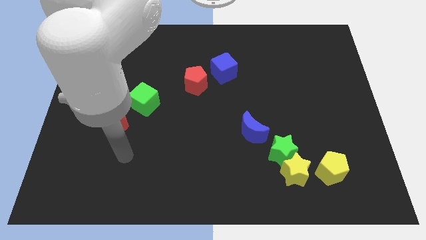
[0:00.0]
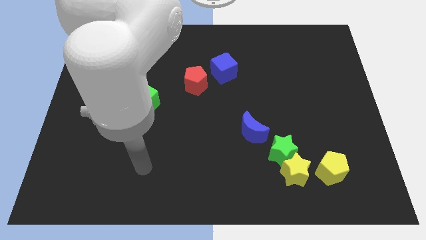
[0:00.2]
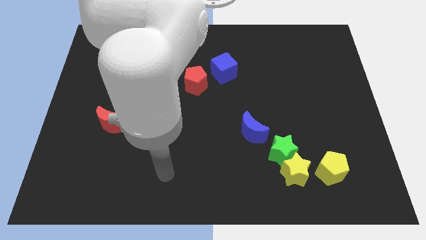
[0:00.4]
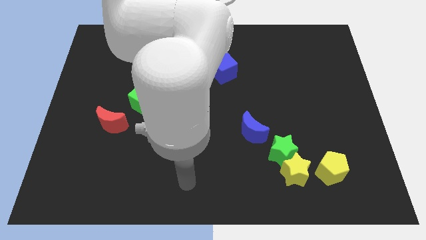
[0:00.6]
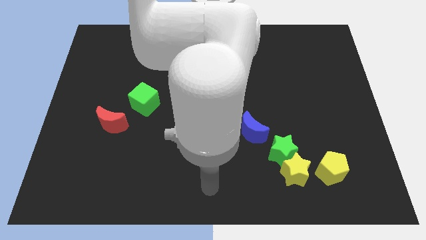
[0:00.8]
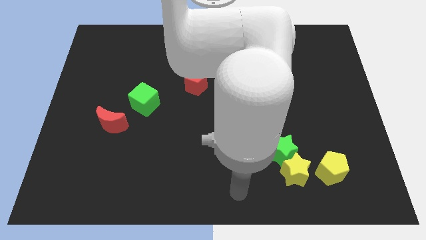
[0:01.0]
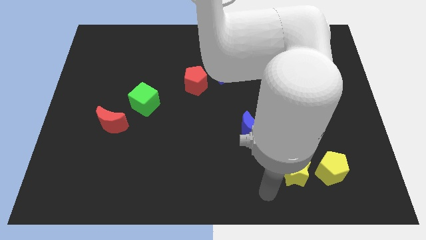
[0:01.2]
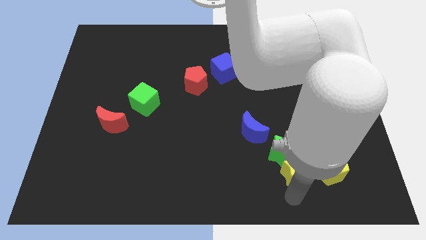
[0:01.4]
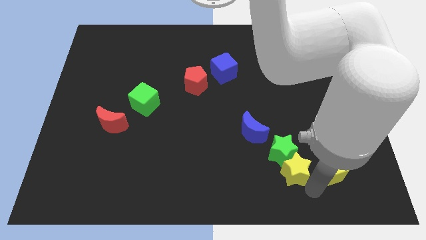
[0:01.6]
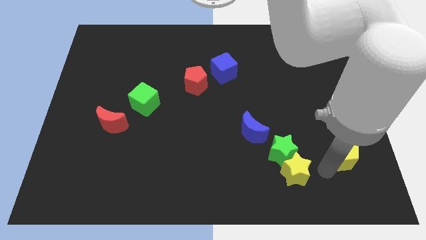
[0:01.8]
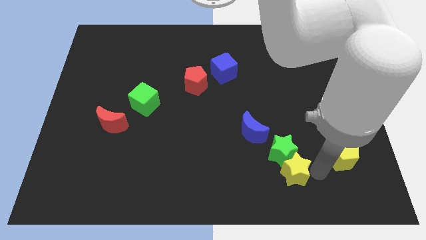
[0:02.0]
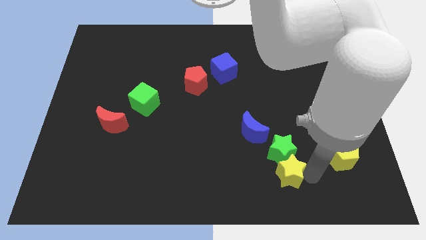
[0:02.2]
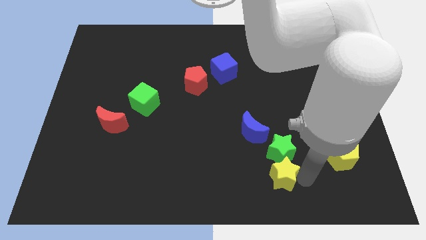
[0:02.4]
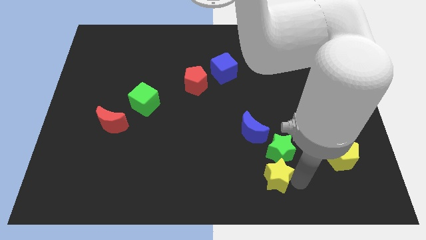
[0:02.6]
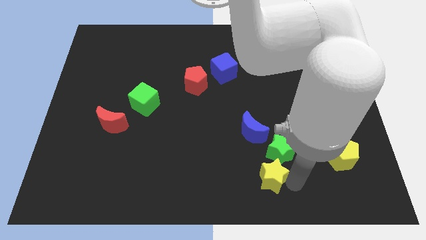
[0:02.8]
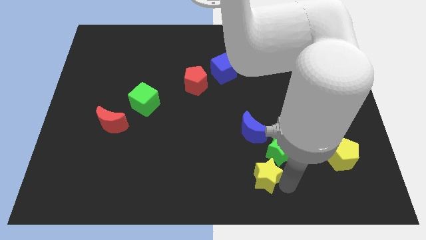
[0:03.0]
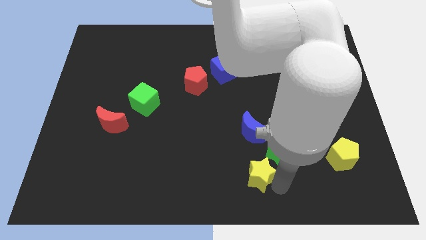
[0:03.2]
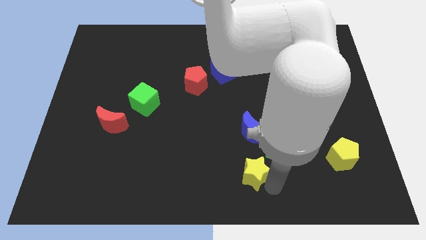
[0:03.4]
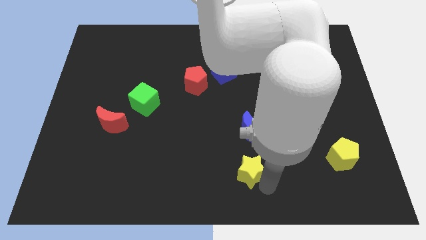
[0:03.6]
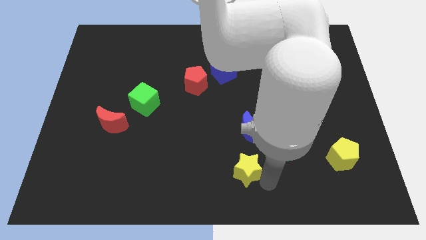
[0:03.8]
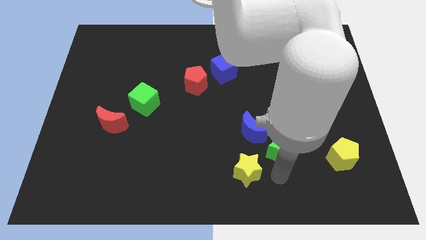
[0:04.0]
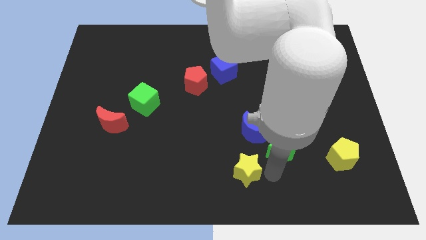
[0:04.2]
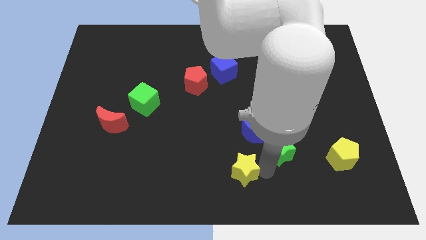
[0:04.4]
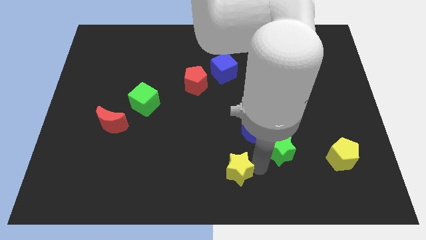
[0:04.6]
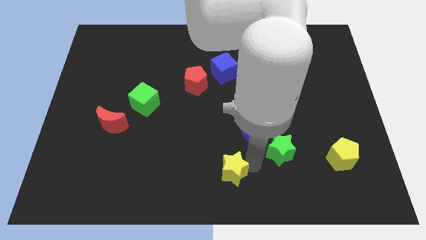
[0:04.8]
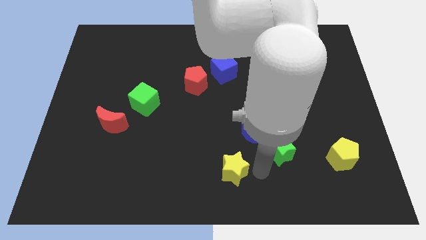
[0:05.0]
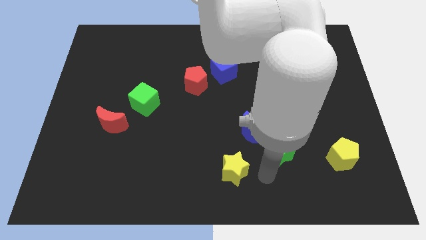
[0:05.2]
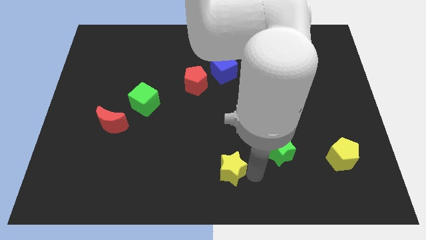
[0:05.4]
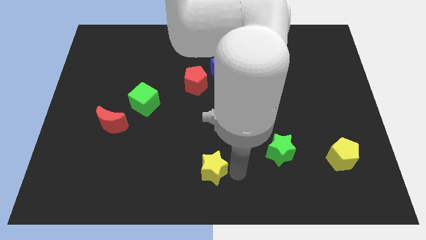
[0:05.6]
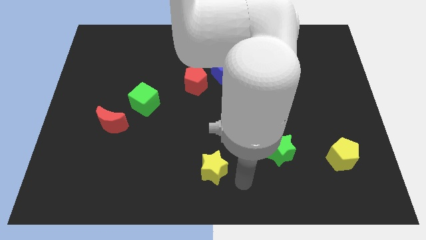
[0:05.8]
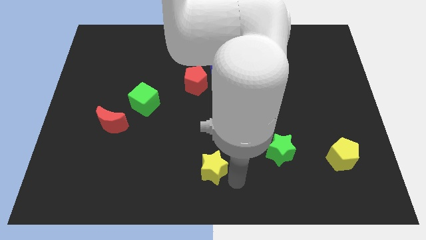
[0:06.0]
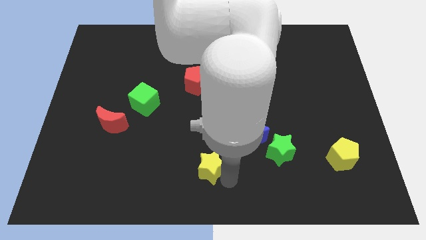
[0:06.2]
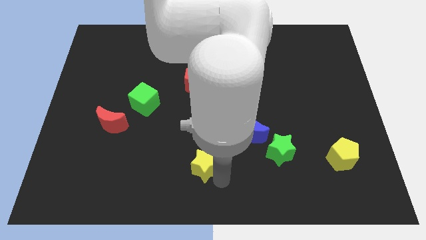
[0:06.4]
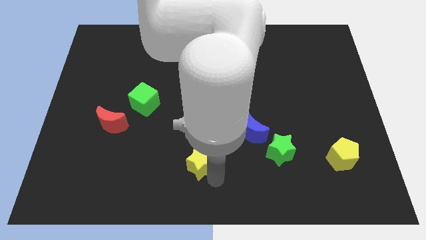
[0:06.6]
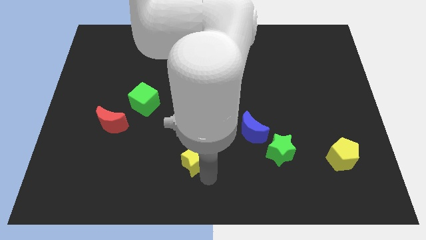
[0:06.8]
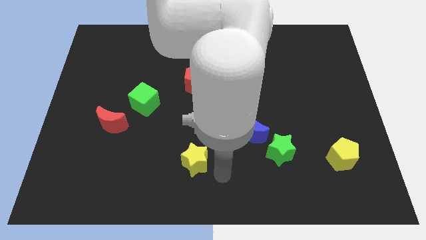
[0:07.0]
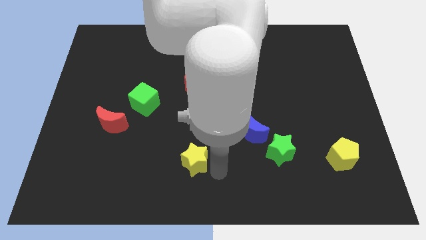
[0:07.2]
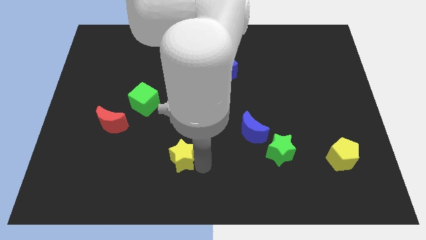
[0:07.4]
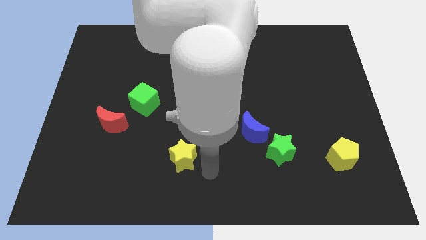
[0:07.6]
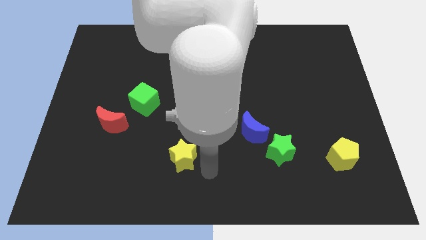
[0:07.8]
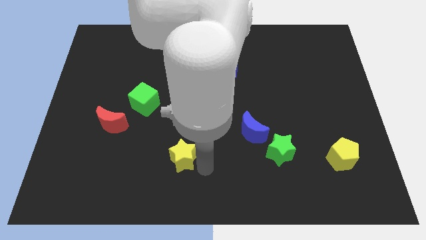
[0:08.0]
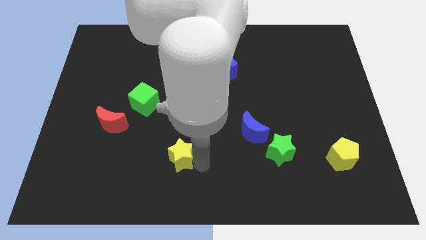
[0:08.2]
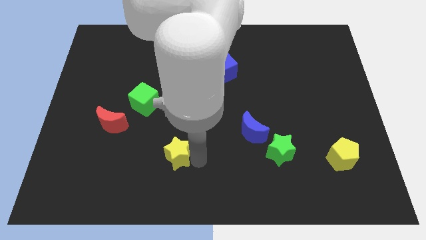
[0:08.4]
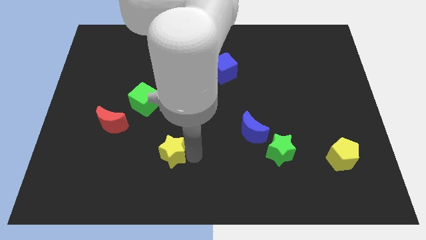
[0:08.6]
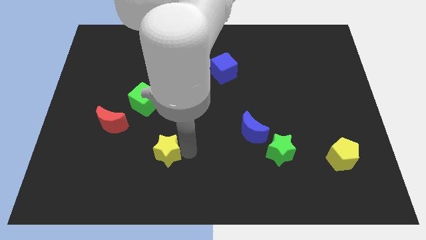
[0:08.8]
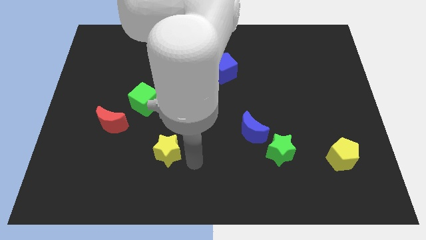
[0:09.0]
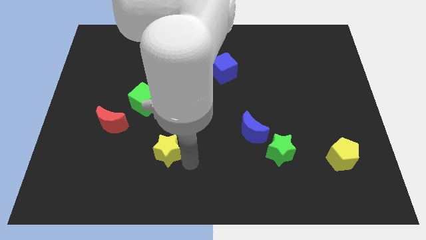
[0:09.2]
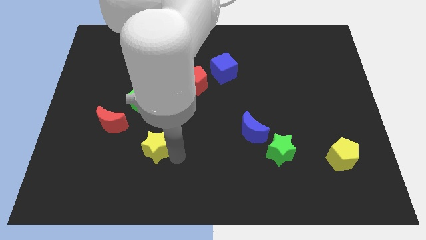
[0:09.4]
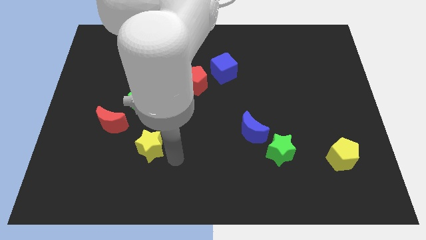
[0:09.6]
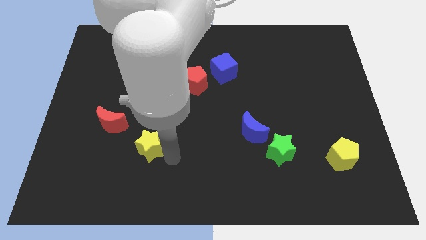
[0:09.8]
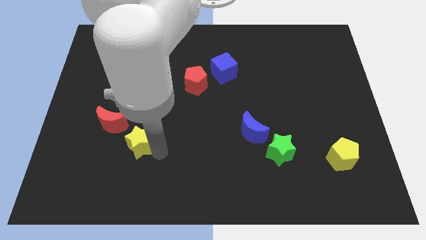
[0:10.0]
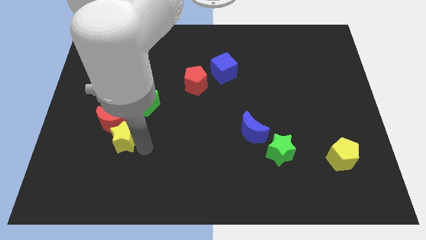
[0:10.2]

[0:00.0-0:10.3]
put the yellow star to the red moon

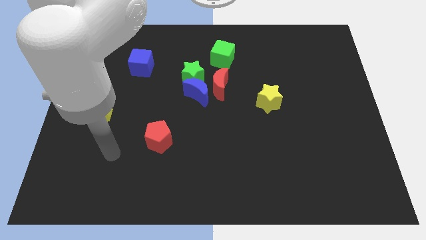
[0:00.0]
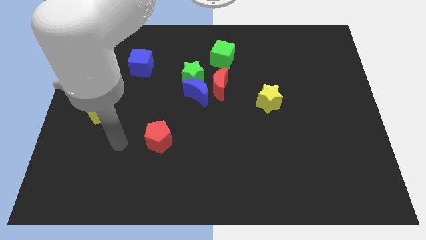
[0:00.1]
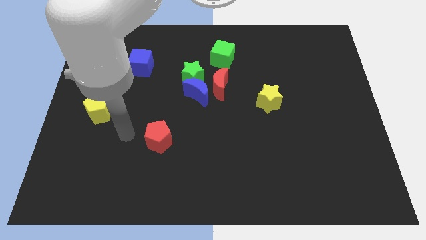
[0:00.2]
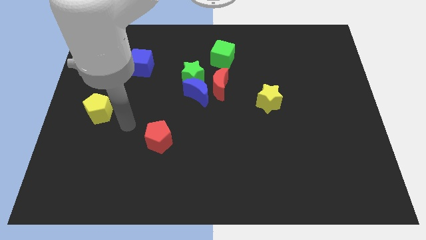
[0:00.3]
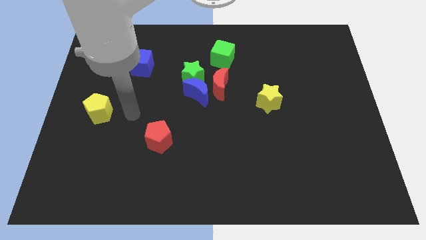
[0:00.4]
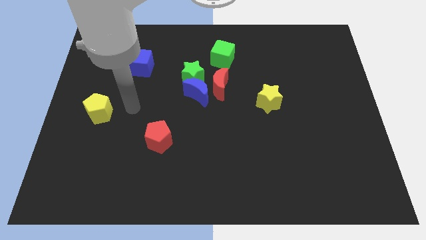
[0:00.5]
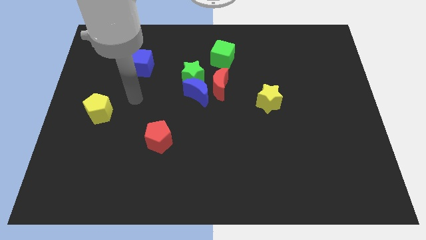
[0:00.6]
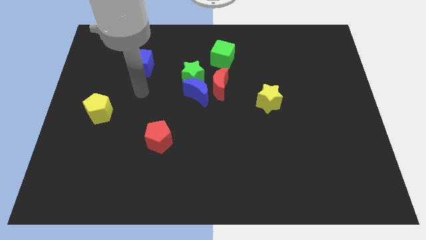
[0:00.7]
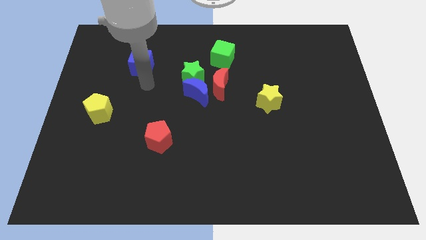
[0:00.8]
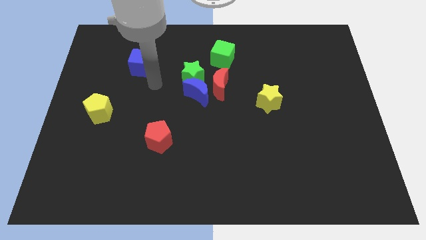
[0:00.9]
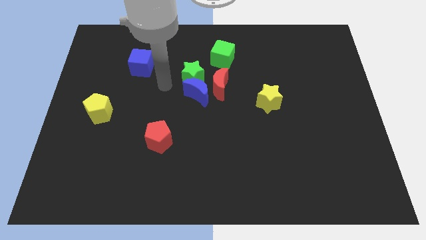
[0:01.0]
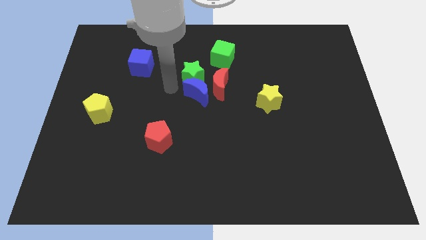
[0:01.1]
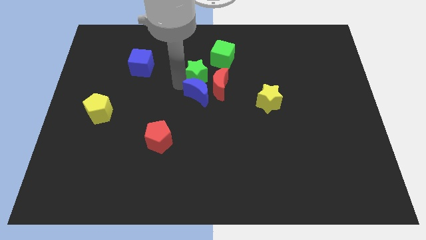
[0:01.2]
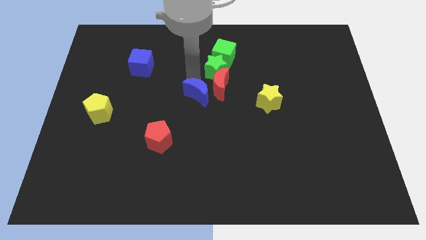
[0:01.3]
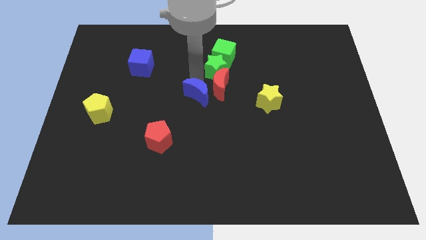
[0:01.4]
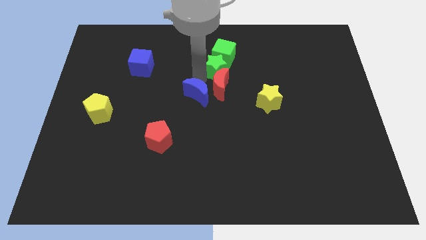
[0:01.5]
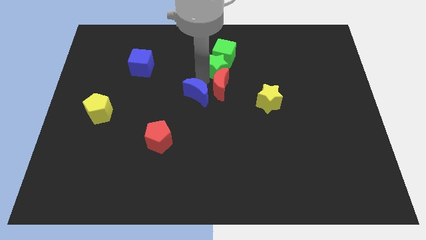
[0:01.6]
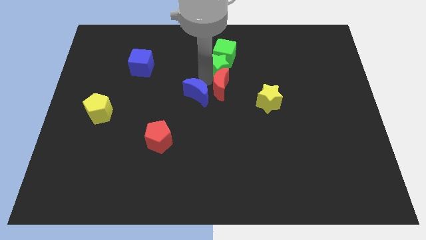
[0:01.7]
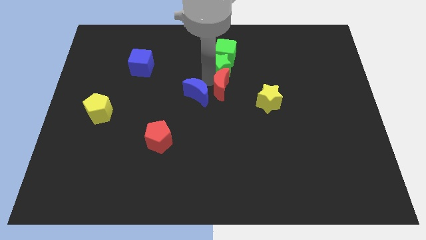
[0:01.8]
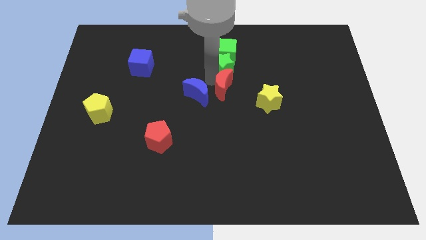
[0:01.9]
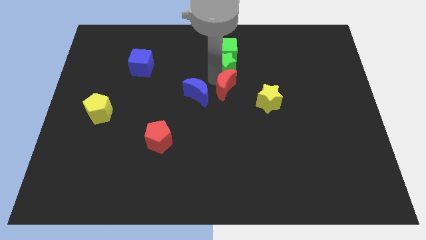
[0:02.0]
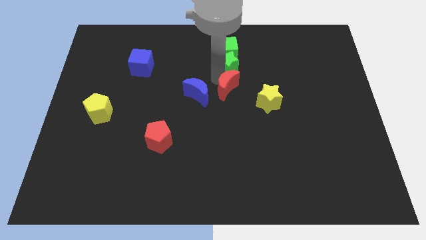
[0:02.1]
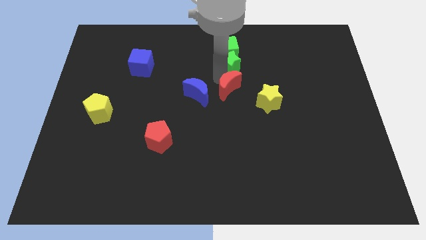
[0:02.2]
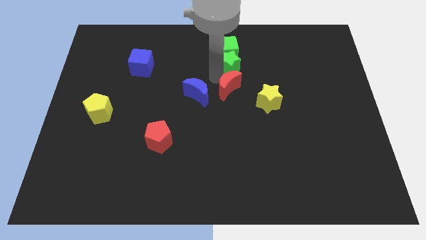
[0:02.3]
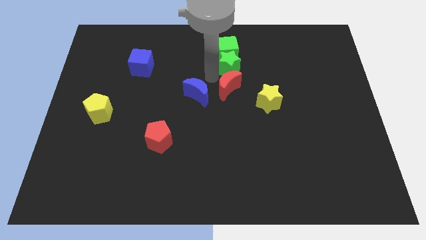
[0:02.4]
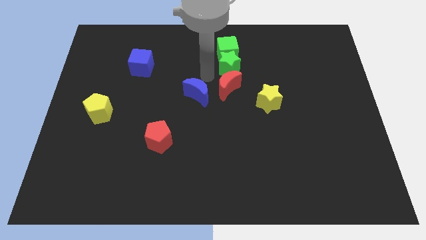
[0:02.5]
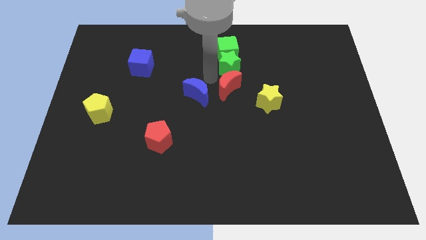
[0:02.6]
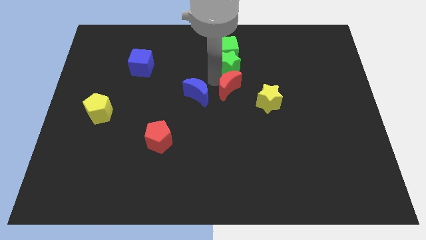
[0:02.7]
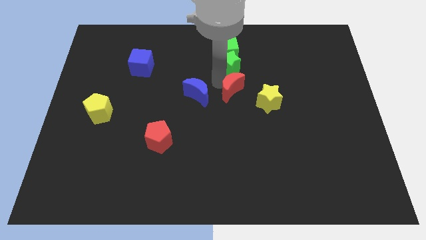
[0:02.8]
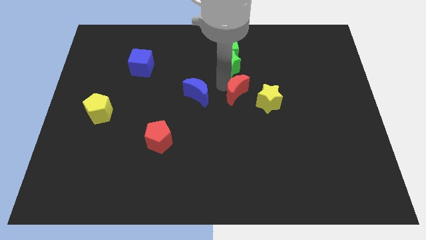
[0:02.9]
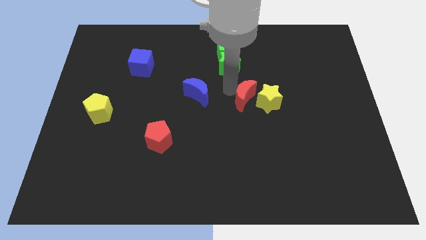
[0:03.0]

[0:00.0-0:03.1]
put the red moon towards the yellow star
